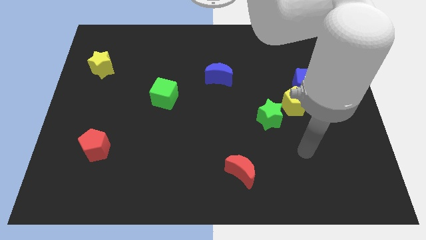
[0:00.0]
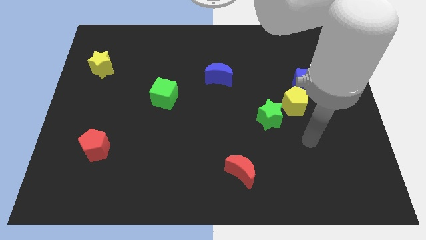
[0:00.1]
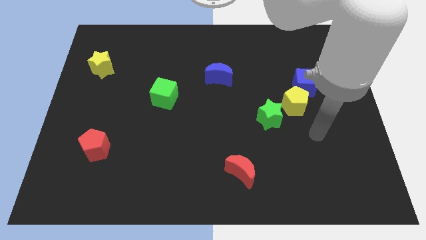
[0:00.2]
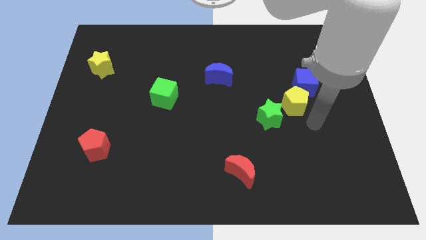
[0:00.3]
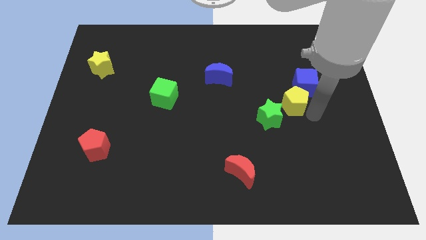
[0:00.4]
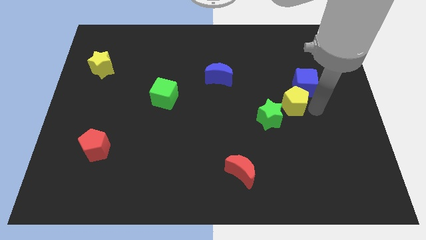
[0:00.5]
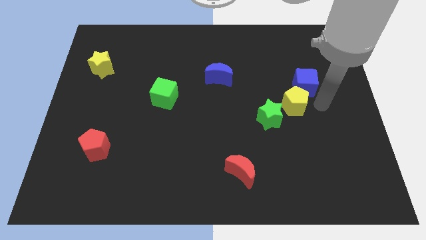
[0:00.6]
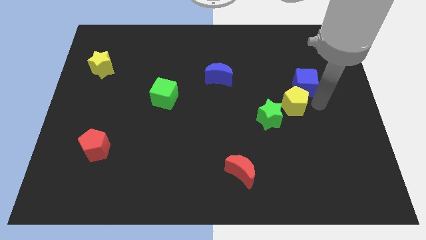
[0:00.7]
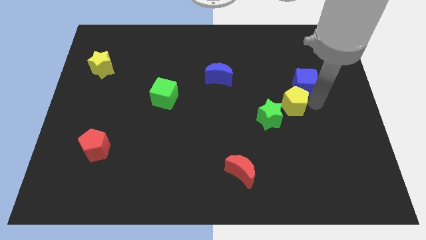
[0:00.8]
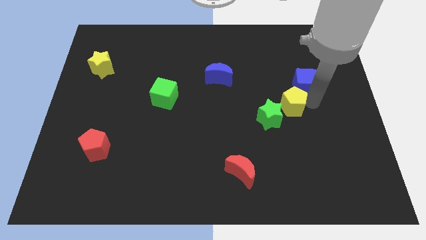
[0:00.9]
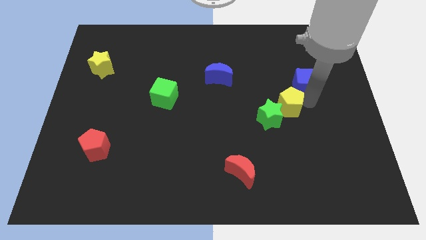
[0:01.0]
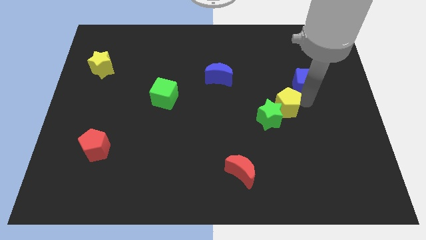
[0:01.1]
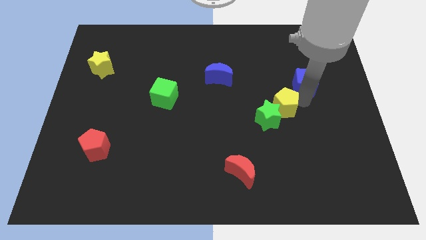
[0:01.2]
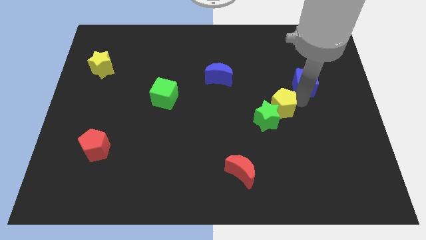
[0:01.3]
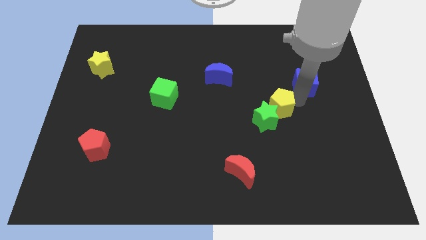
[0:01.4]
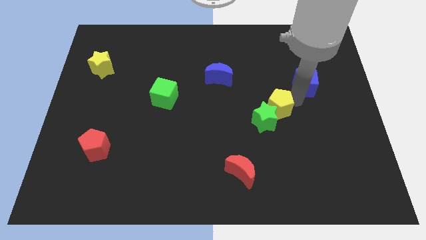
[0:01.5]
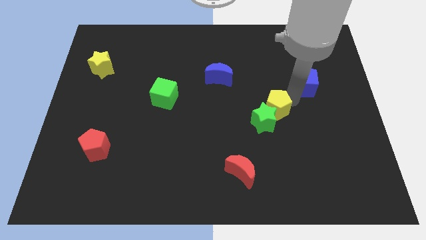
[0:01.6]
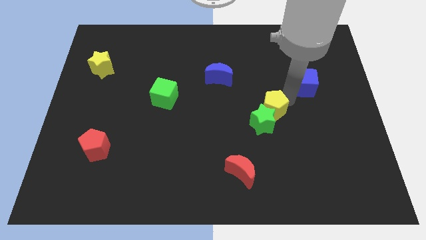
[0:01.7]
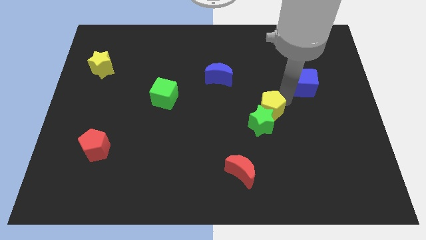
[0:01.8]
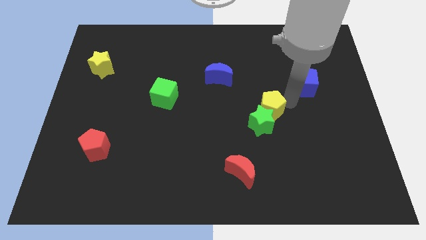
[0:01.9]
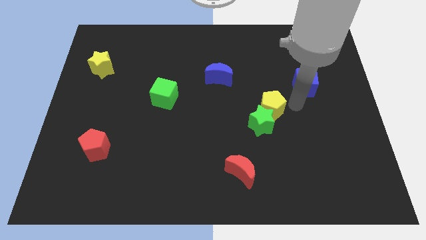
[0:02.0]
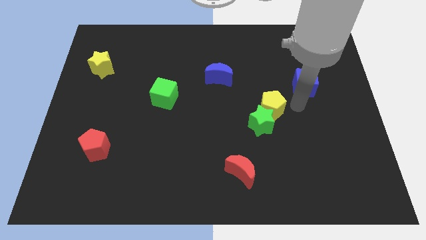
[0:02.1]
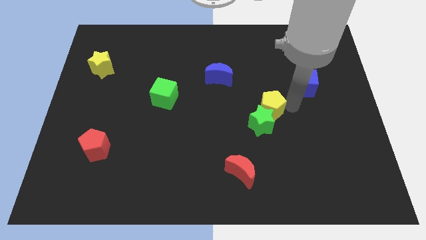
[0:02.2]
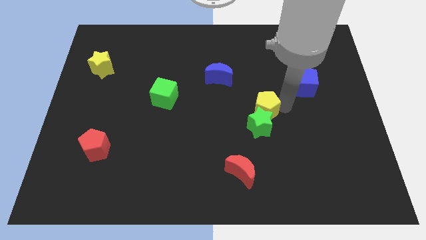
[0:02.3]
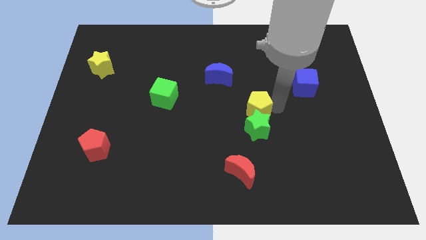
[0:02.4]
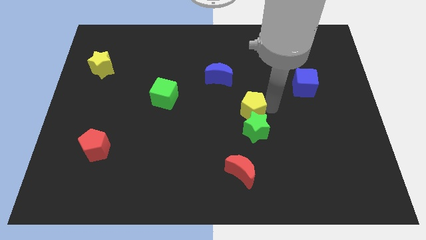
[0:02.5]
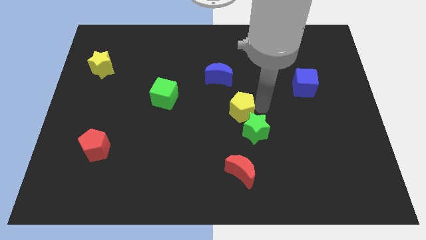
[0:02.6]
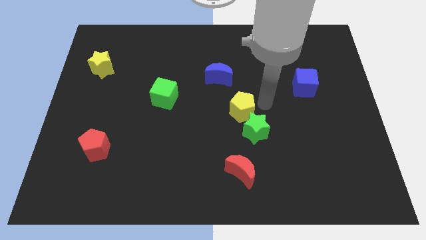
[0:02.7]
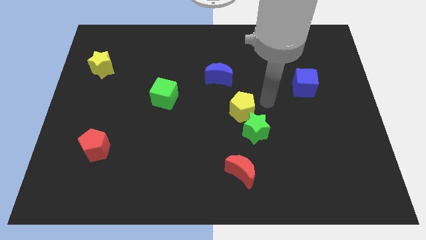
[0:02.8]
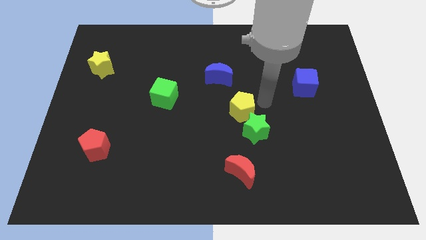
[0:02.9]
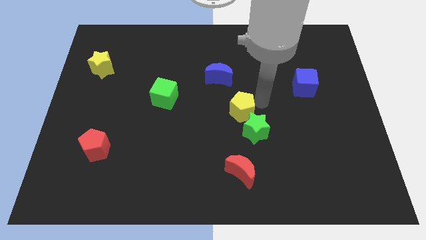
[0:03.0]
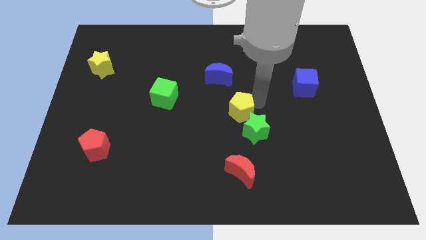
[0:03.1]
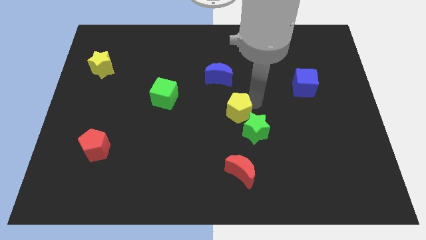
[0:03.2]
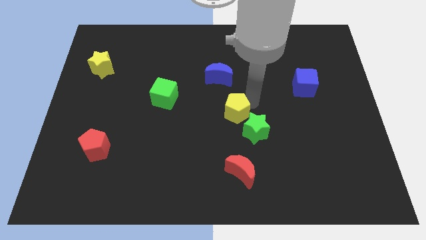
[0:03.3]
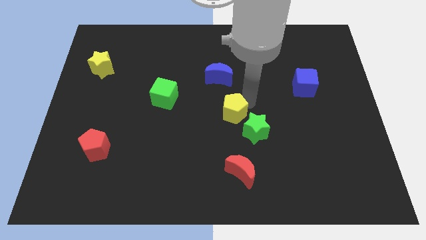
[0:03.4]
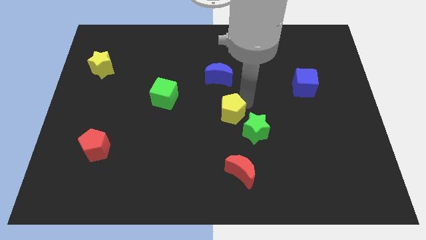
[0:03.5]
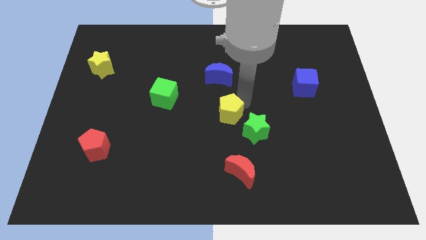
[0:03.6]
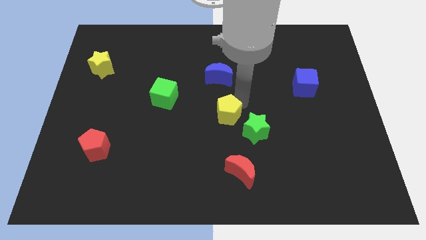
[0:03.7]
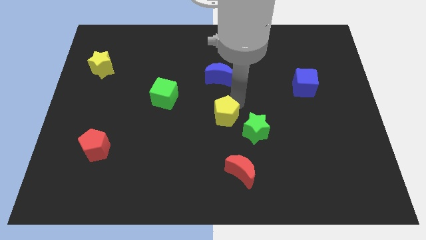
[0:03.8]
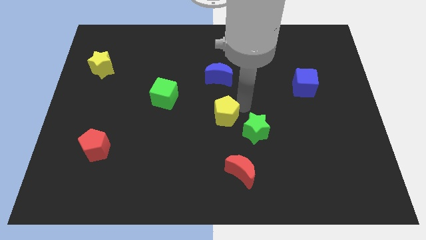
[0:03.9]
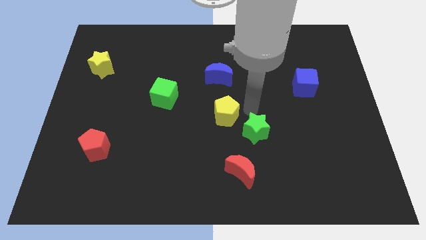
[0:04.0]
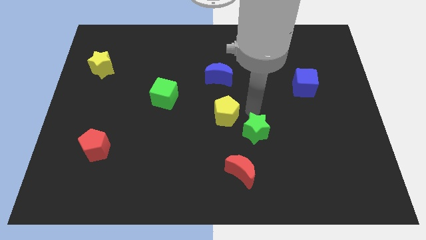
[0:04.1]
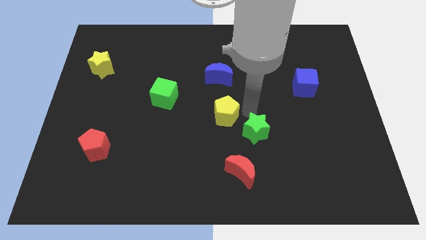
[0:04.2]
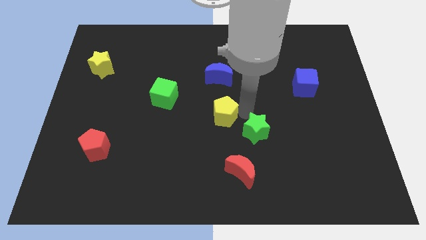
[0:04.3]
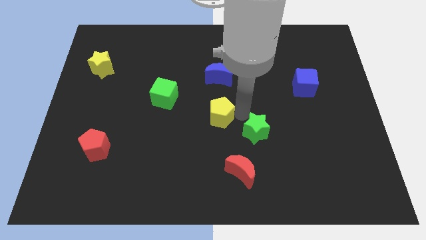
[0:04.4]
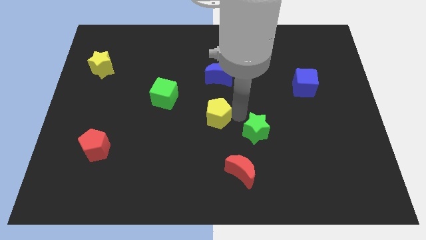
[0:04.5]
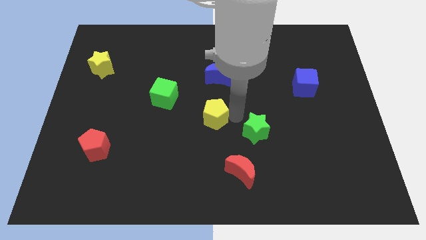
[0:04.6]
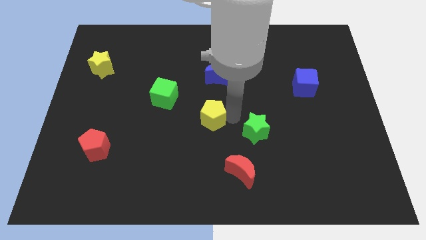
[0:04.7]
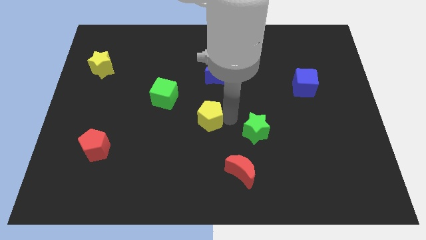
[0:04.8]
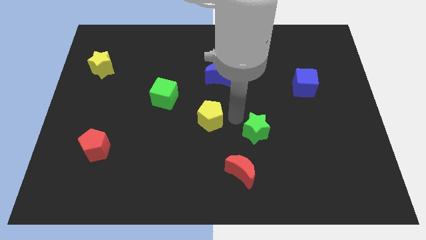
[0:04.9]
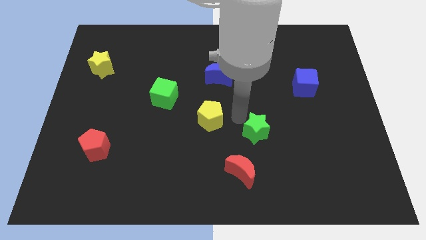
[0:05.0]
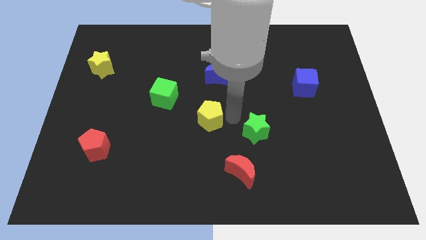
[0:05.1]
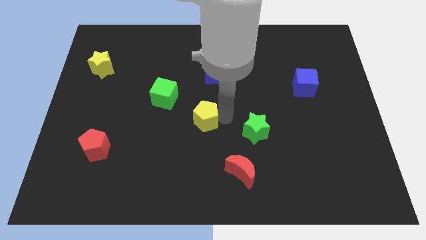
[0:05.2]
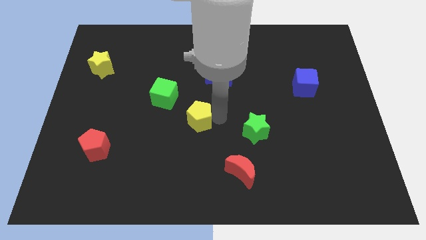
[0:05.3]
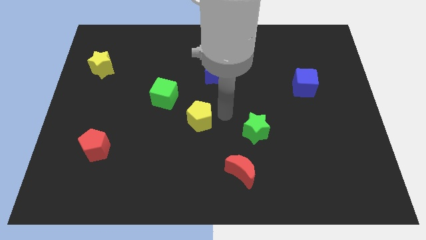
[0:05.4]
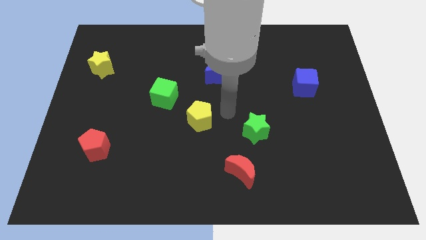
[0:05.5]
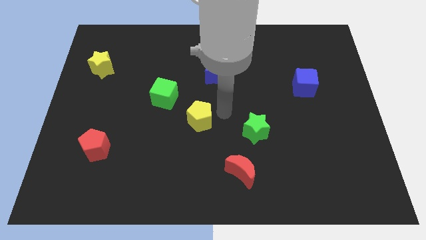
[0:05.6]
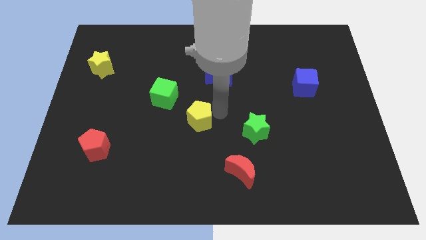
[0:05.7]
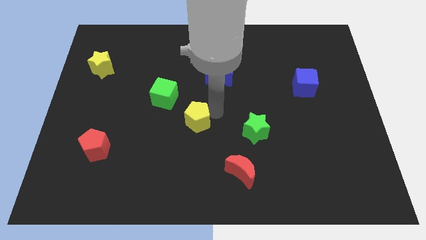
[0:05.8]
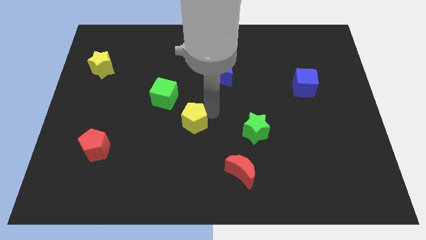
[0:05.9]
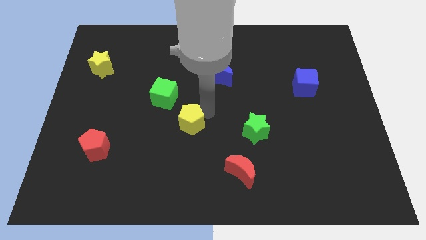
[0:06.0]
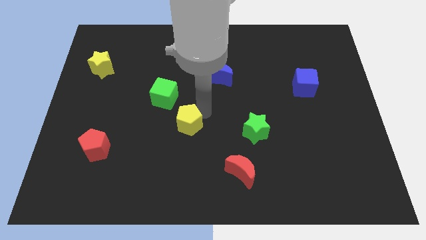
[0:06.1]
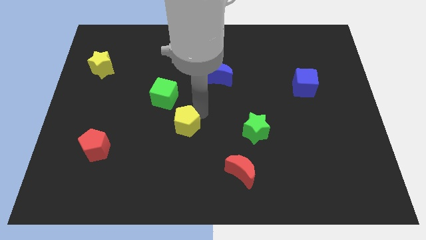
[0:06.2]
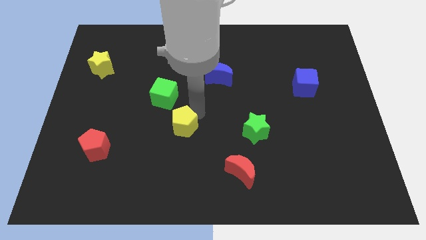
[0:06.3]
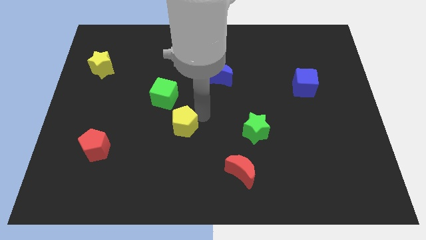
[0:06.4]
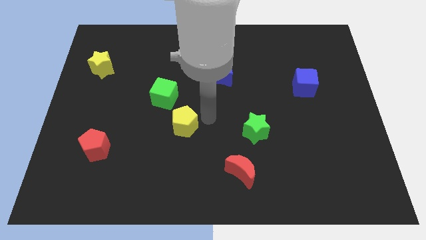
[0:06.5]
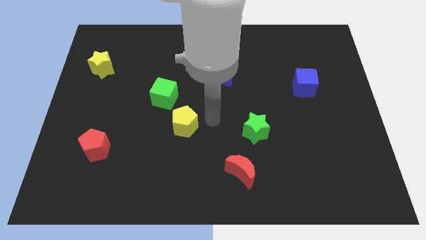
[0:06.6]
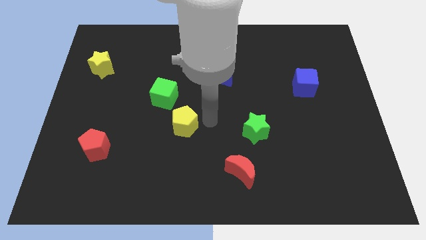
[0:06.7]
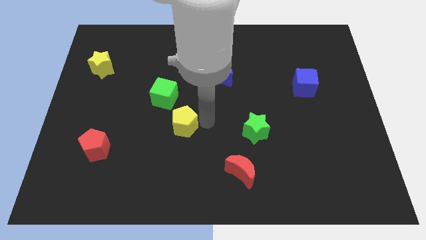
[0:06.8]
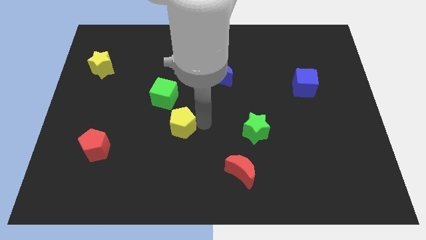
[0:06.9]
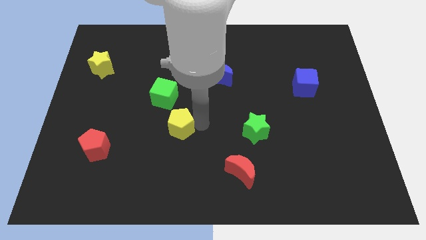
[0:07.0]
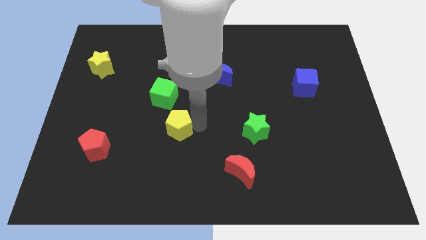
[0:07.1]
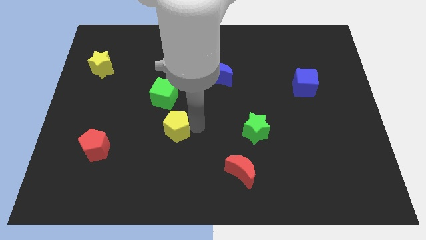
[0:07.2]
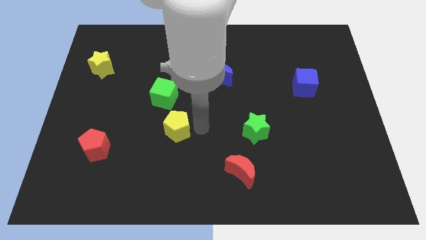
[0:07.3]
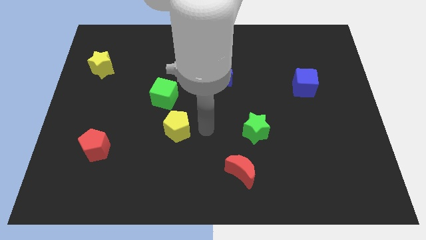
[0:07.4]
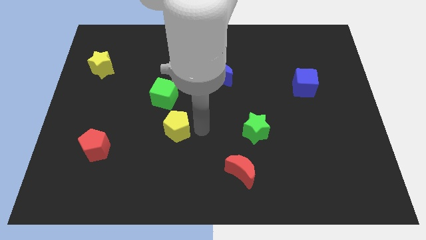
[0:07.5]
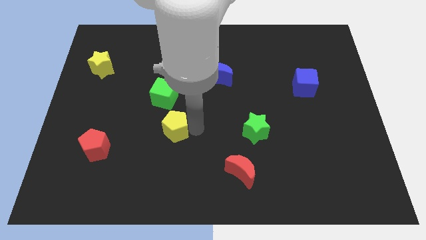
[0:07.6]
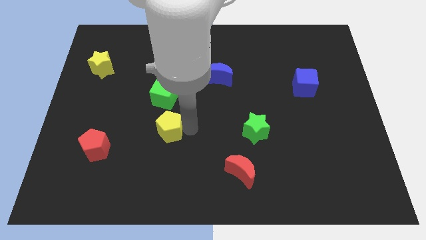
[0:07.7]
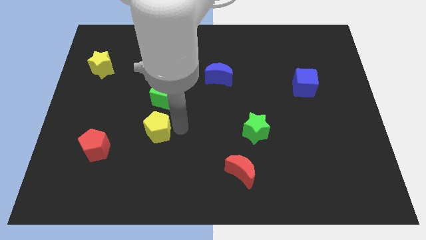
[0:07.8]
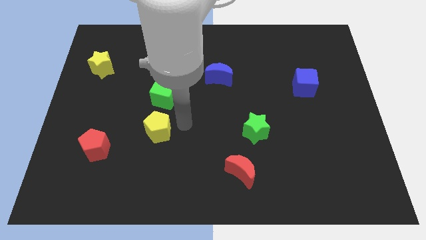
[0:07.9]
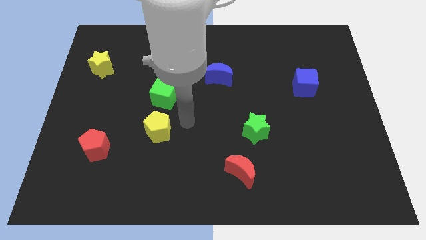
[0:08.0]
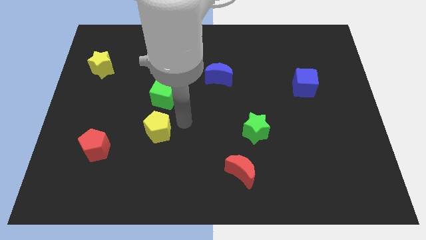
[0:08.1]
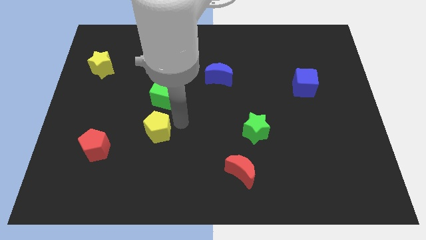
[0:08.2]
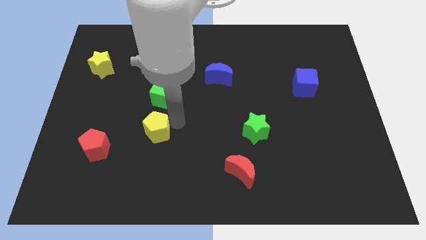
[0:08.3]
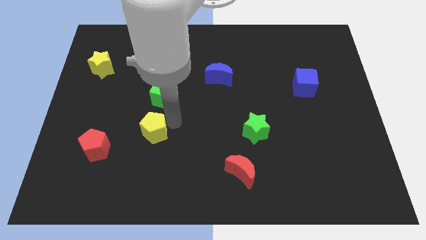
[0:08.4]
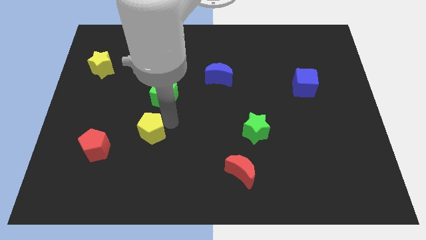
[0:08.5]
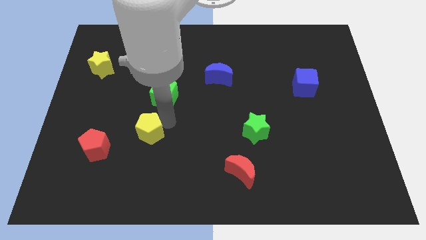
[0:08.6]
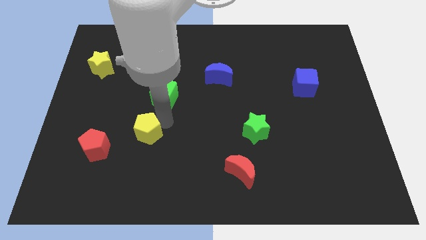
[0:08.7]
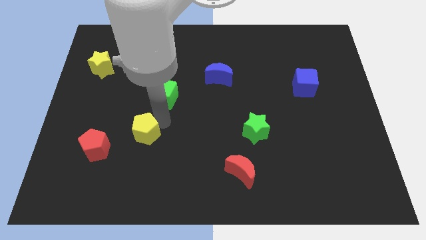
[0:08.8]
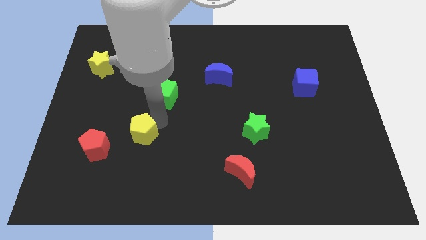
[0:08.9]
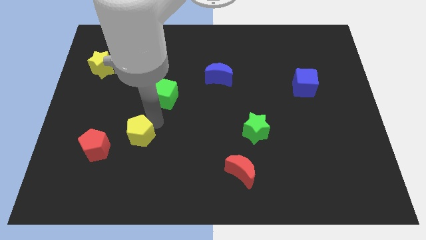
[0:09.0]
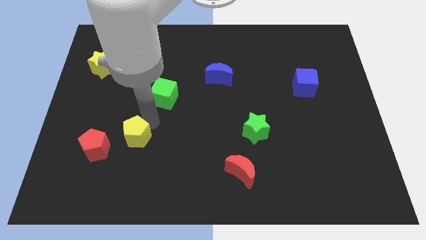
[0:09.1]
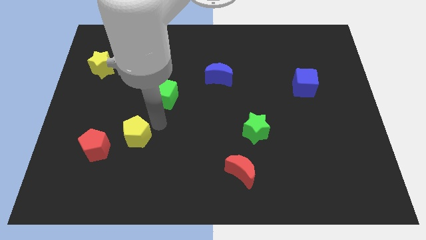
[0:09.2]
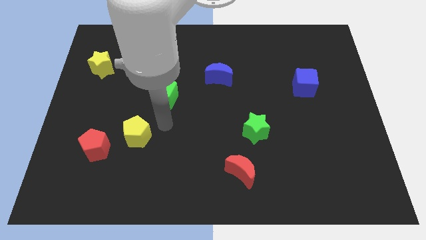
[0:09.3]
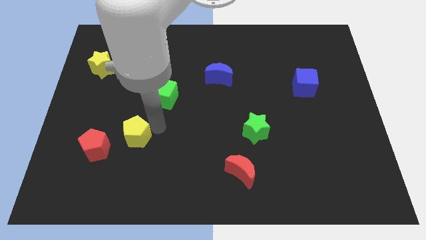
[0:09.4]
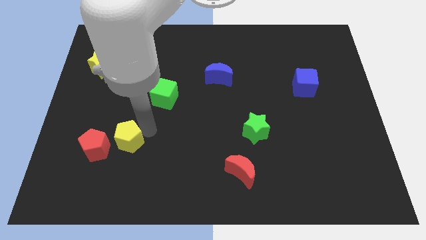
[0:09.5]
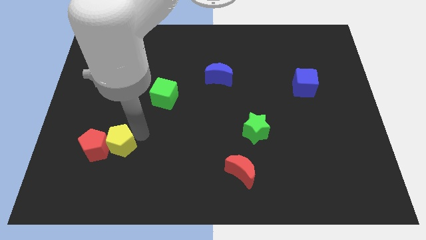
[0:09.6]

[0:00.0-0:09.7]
put the yellow pentagon next to the red pentagon
